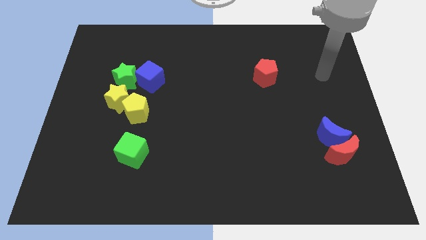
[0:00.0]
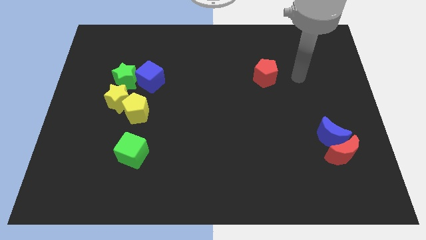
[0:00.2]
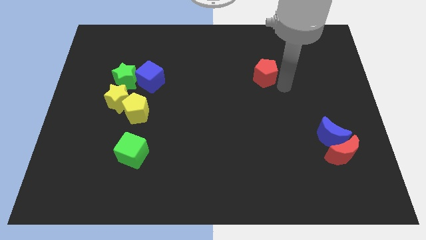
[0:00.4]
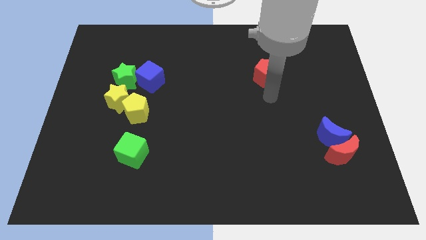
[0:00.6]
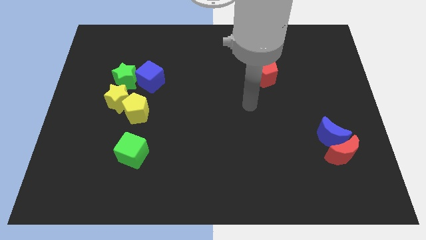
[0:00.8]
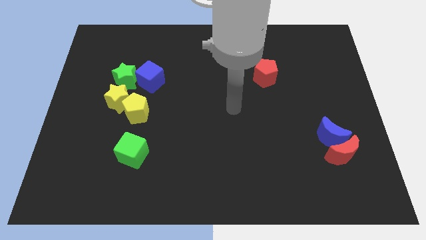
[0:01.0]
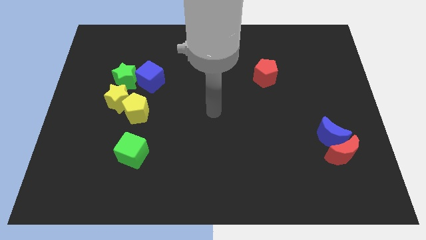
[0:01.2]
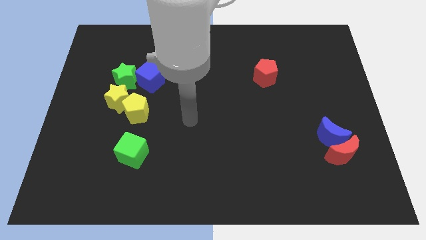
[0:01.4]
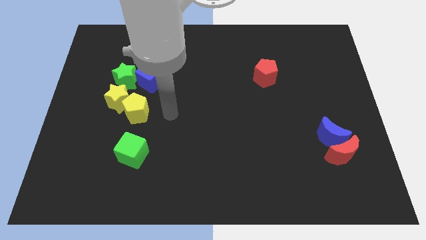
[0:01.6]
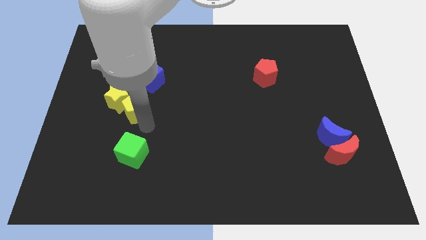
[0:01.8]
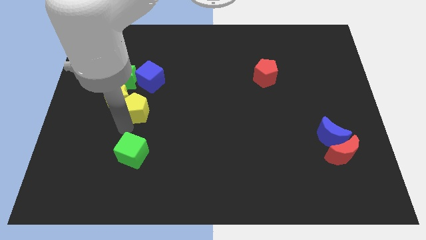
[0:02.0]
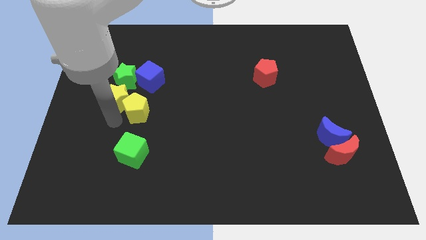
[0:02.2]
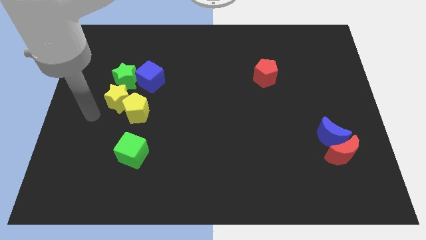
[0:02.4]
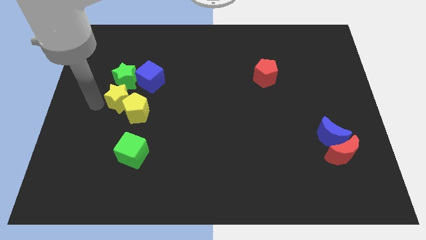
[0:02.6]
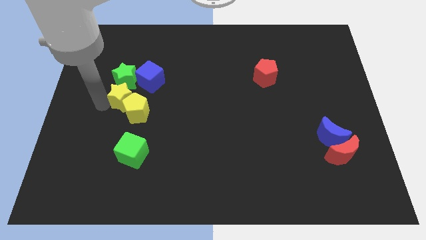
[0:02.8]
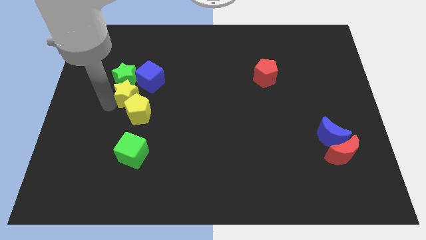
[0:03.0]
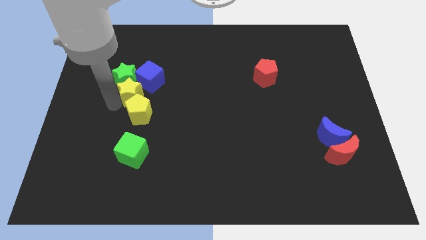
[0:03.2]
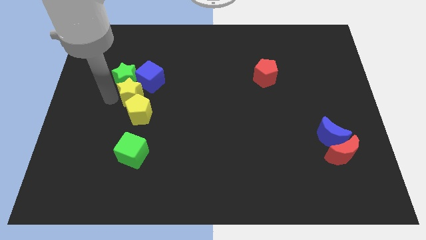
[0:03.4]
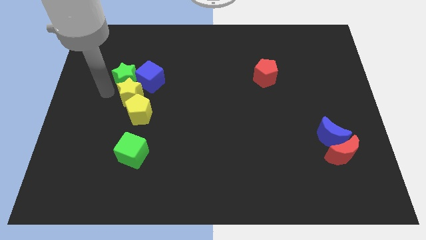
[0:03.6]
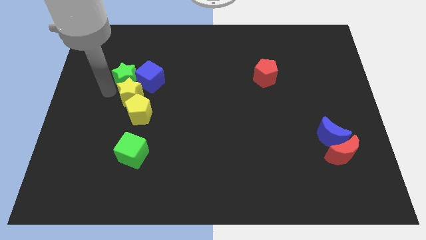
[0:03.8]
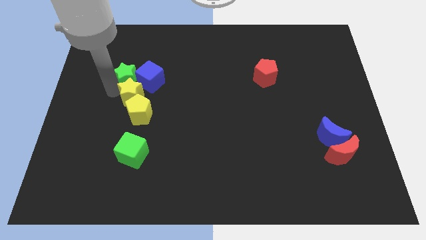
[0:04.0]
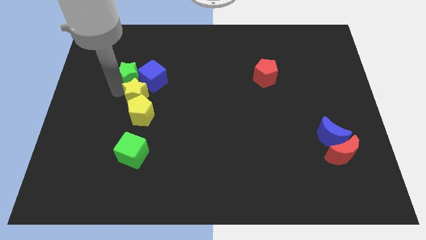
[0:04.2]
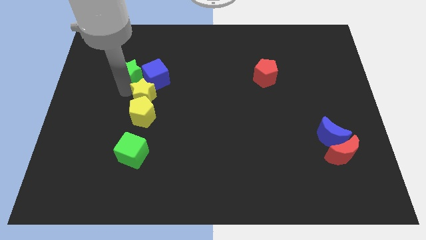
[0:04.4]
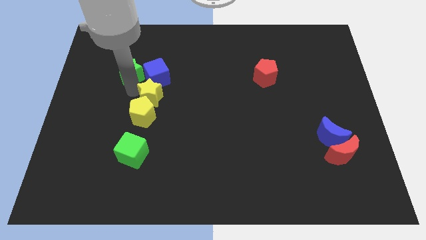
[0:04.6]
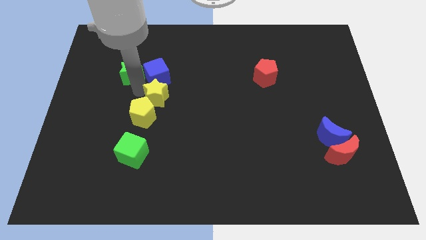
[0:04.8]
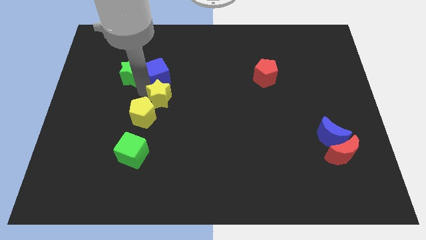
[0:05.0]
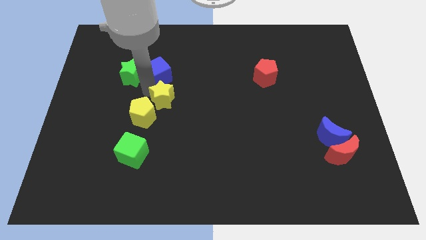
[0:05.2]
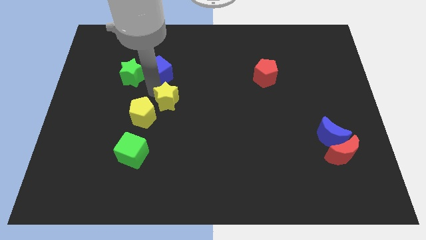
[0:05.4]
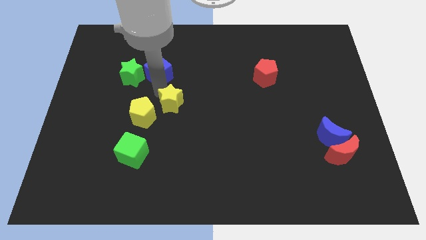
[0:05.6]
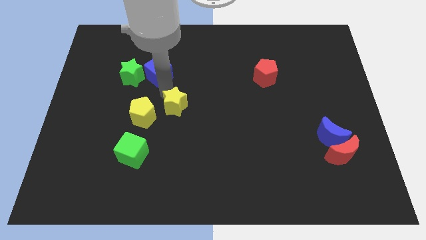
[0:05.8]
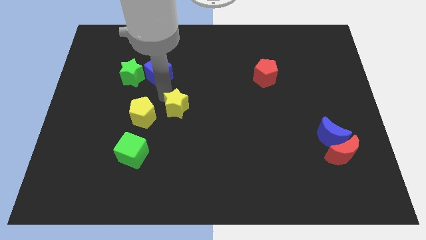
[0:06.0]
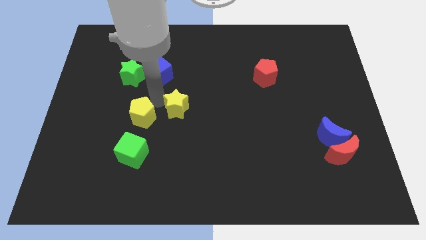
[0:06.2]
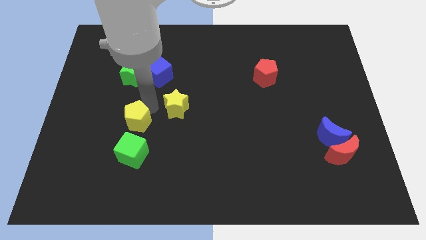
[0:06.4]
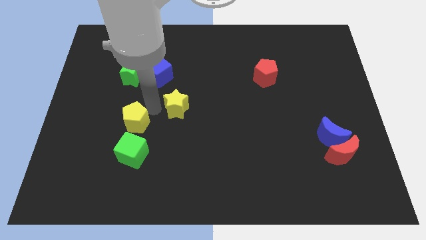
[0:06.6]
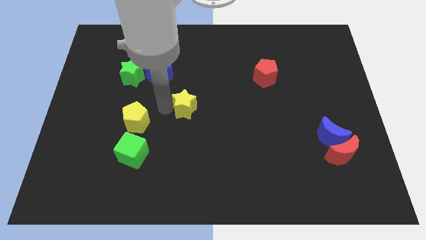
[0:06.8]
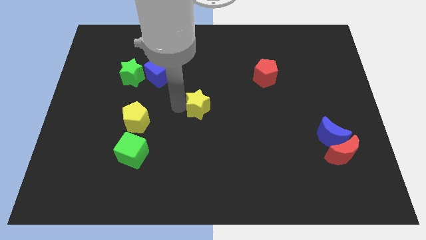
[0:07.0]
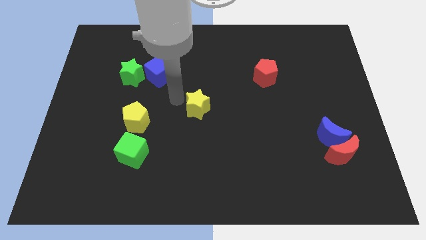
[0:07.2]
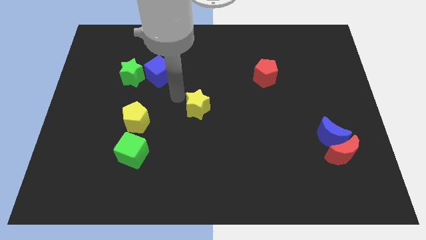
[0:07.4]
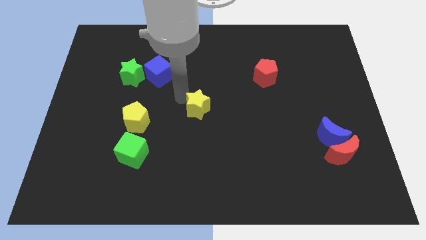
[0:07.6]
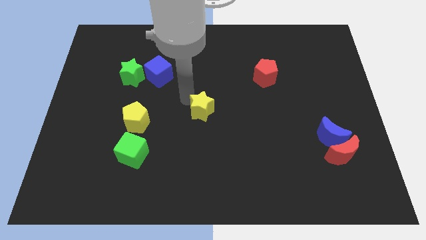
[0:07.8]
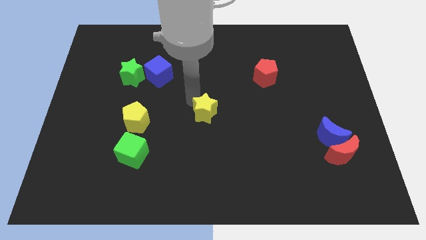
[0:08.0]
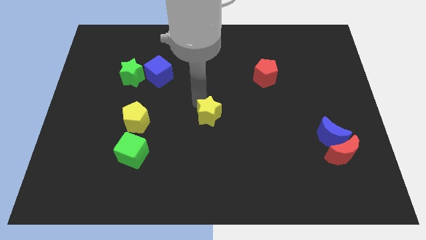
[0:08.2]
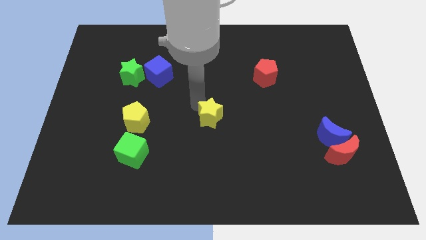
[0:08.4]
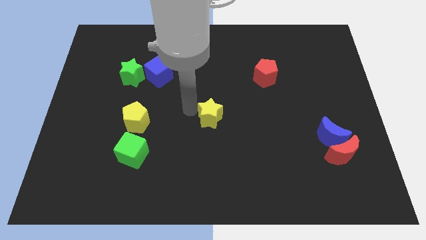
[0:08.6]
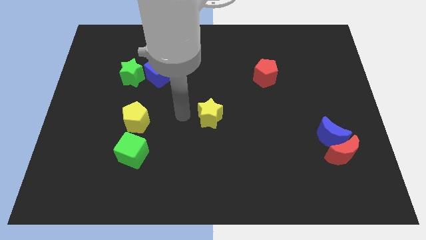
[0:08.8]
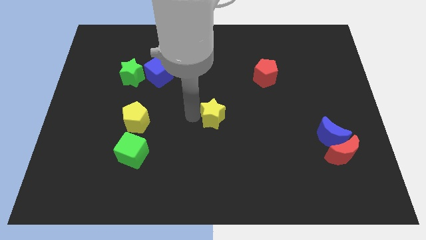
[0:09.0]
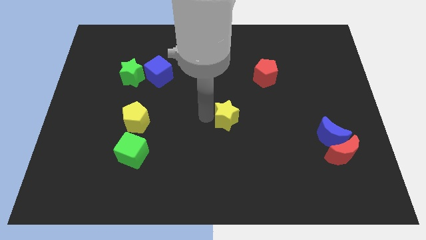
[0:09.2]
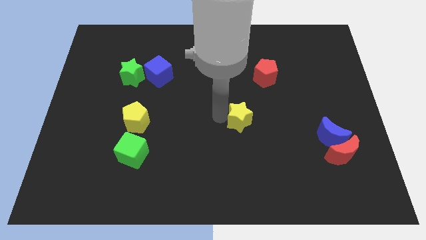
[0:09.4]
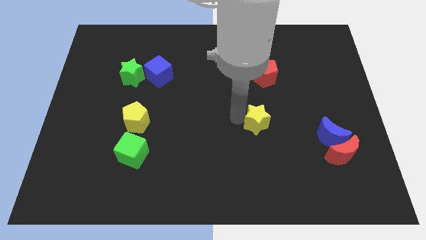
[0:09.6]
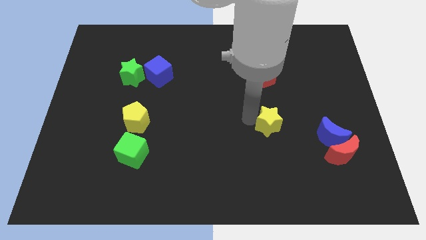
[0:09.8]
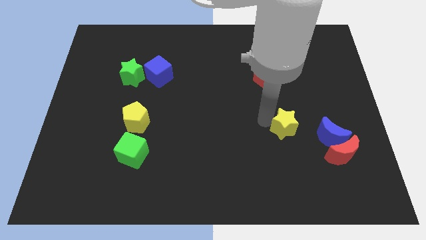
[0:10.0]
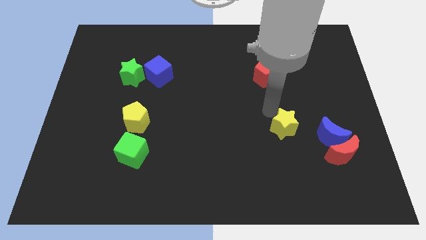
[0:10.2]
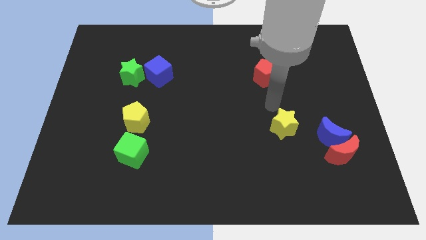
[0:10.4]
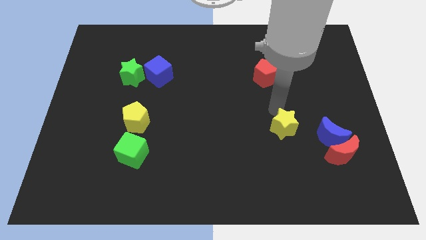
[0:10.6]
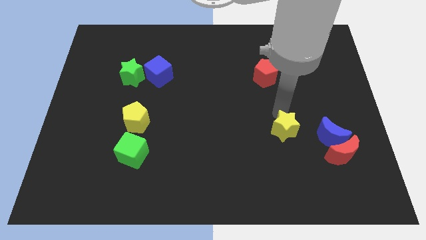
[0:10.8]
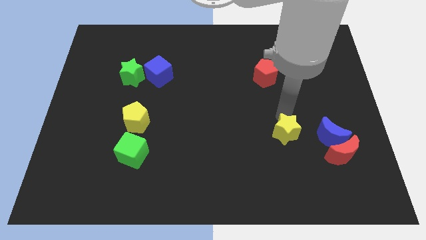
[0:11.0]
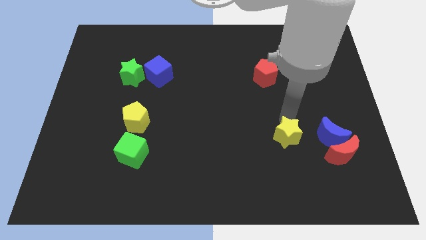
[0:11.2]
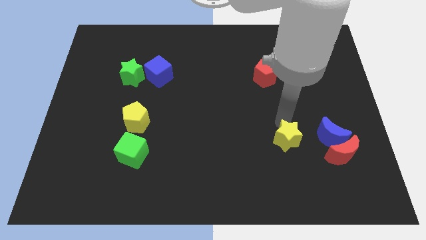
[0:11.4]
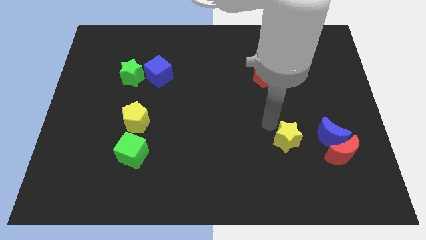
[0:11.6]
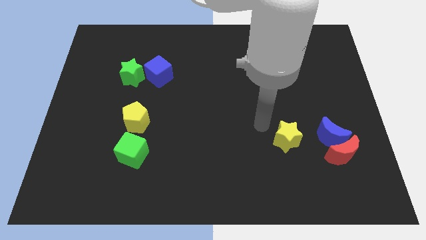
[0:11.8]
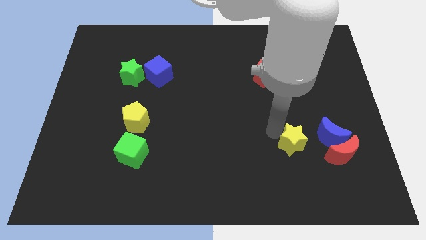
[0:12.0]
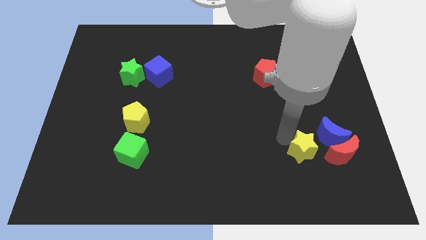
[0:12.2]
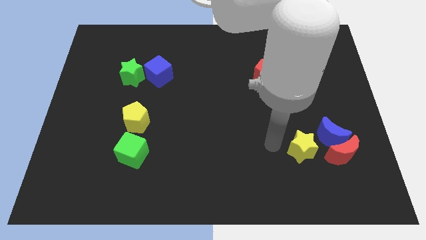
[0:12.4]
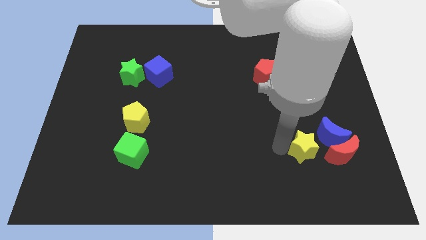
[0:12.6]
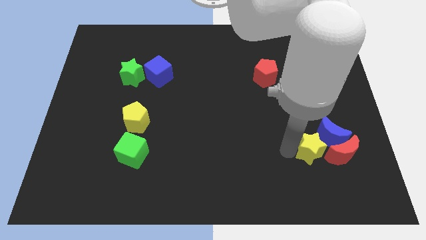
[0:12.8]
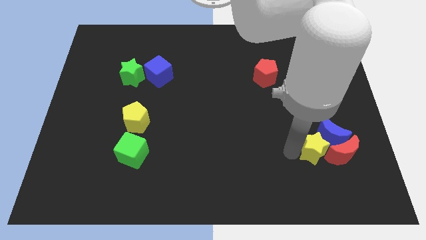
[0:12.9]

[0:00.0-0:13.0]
move the yellow star close to the red moon
